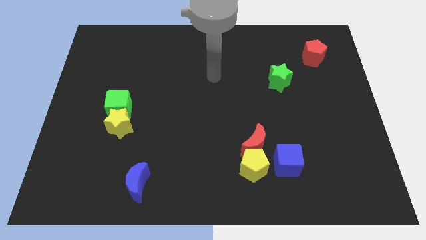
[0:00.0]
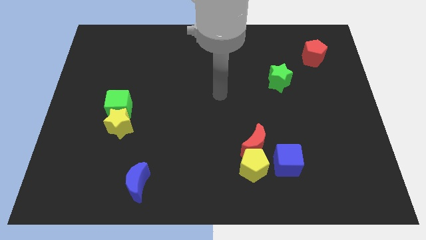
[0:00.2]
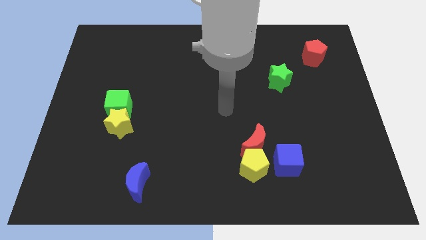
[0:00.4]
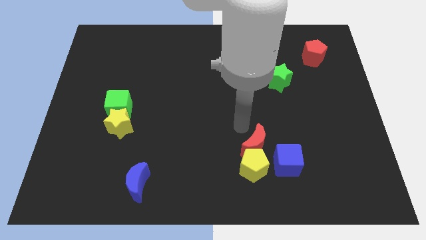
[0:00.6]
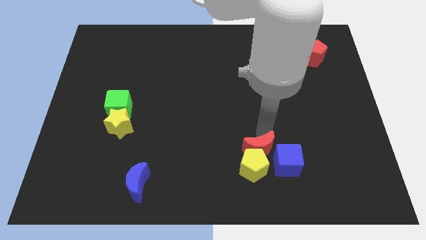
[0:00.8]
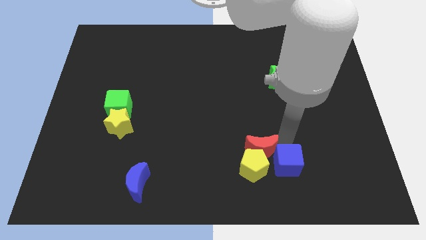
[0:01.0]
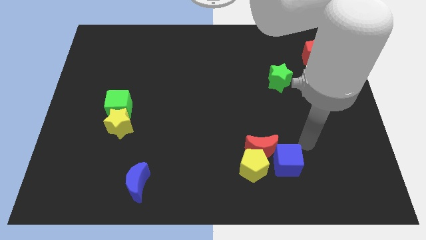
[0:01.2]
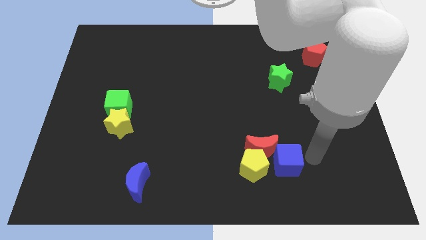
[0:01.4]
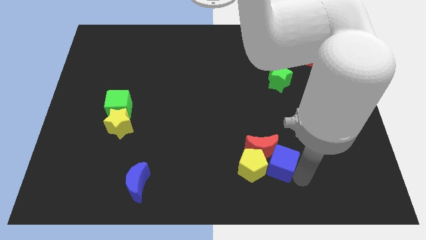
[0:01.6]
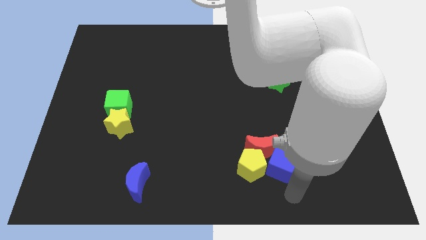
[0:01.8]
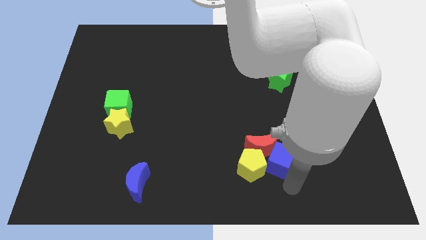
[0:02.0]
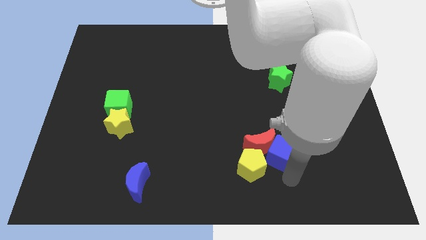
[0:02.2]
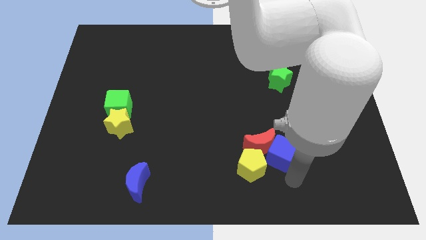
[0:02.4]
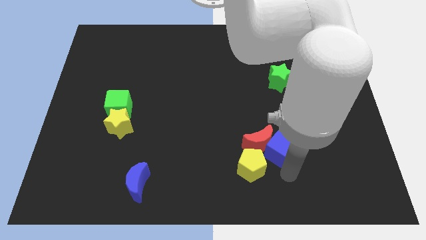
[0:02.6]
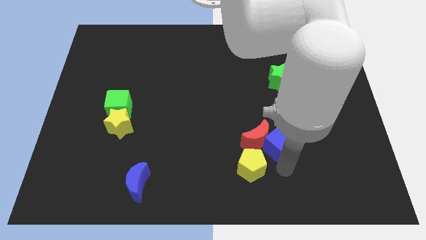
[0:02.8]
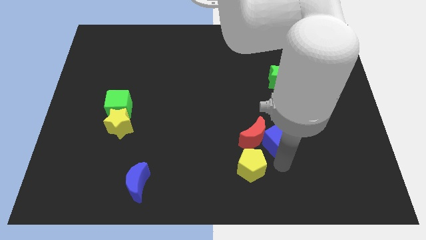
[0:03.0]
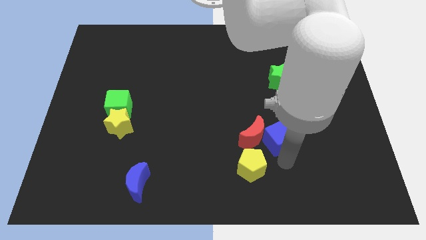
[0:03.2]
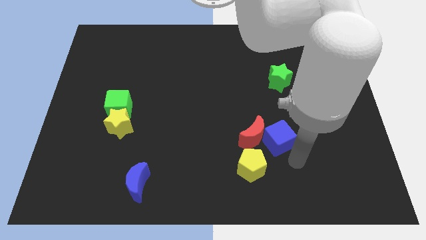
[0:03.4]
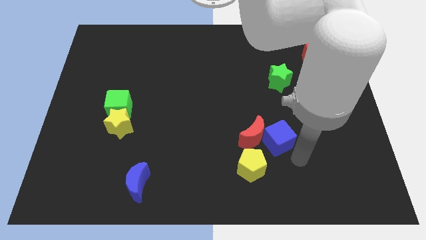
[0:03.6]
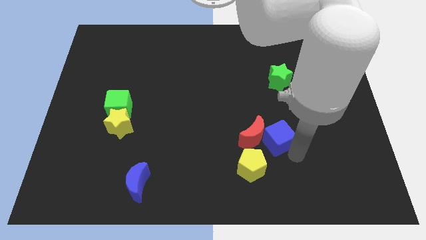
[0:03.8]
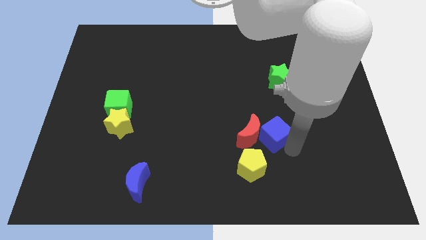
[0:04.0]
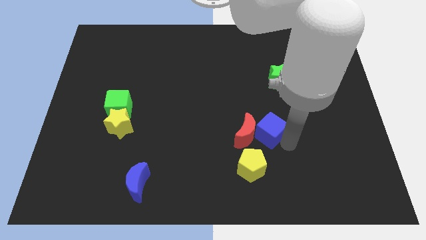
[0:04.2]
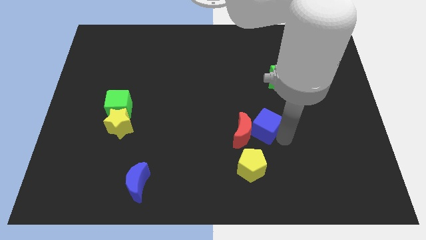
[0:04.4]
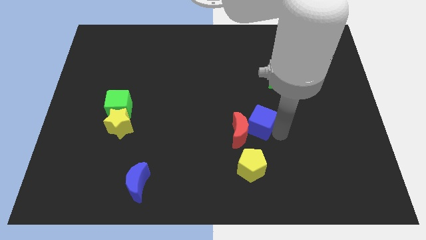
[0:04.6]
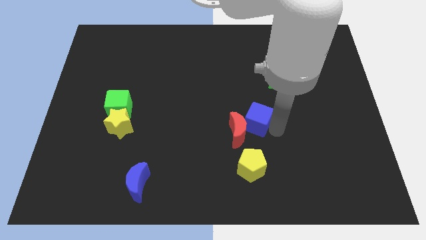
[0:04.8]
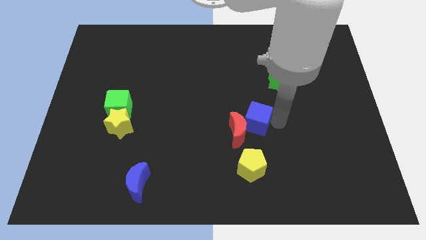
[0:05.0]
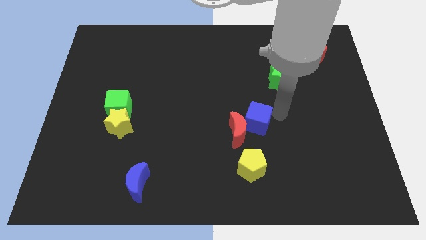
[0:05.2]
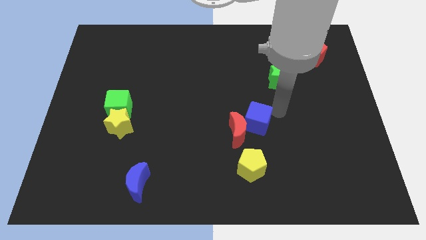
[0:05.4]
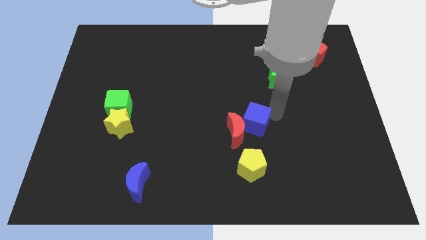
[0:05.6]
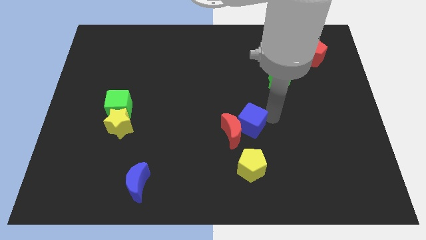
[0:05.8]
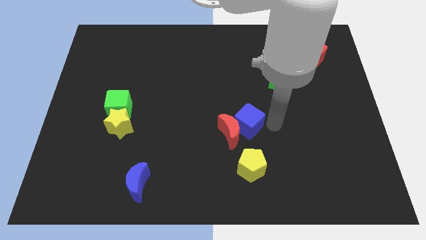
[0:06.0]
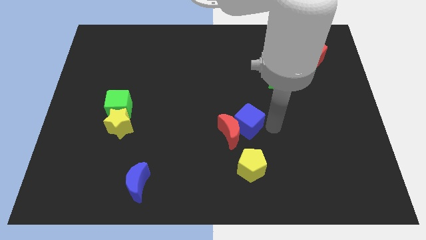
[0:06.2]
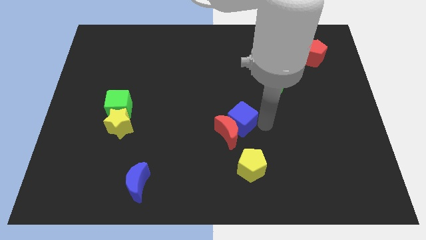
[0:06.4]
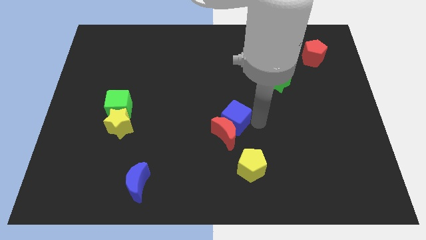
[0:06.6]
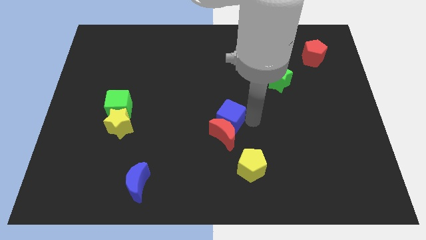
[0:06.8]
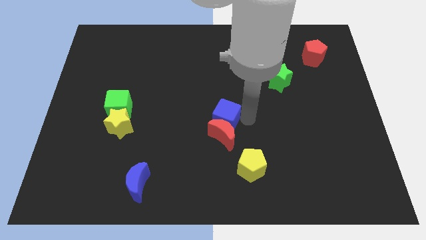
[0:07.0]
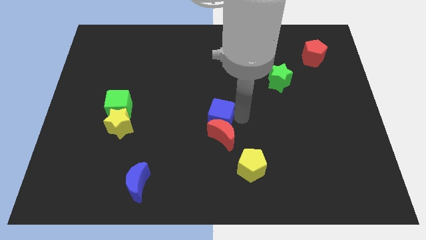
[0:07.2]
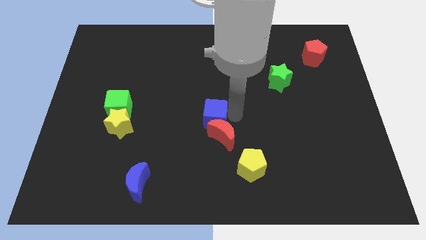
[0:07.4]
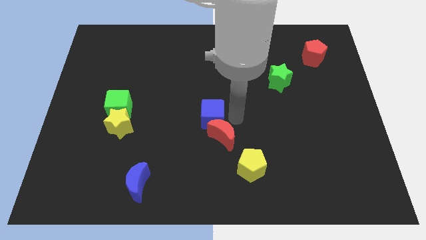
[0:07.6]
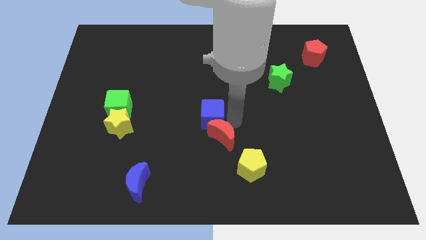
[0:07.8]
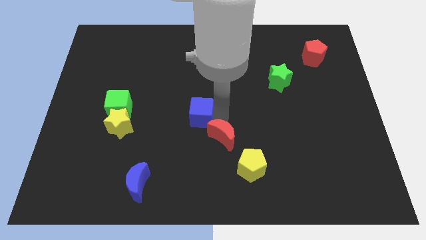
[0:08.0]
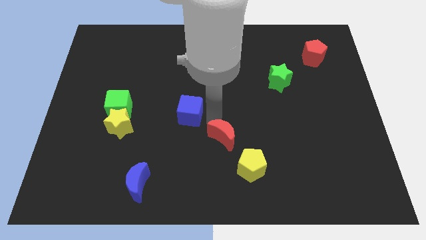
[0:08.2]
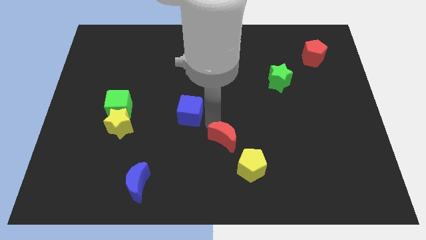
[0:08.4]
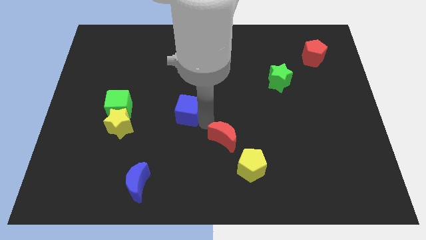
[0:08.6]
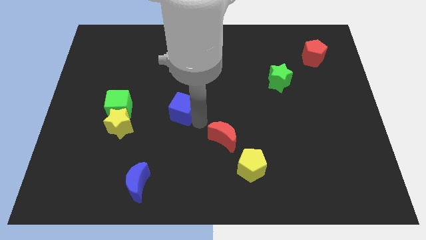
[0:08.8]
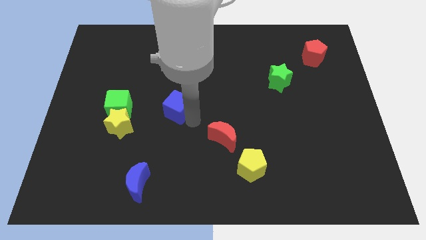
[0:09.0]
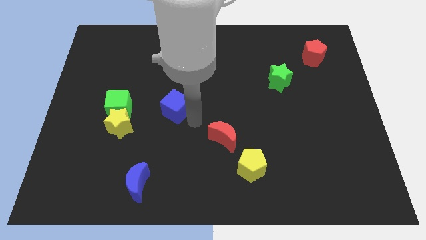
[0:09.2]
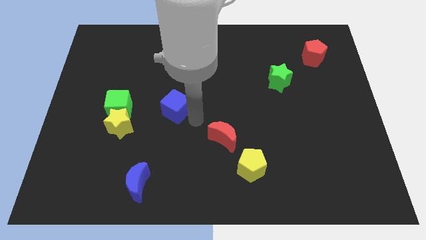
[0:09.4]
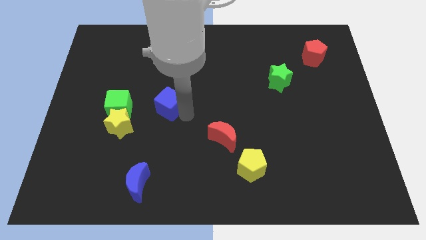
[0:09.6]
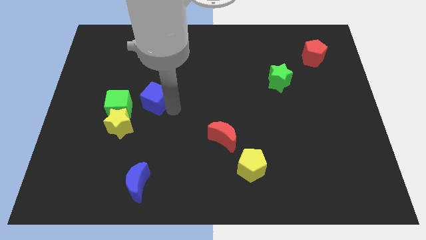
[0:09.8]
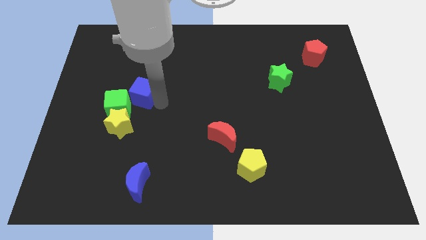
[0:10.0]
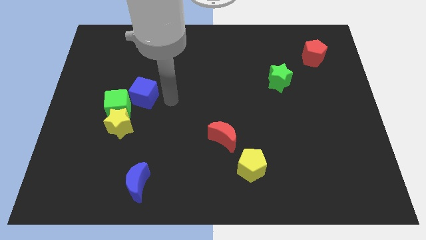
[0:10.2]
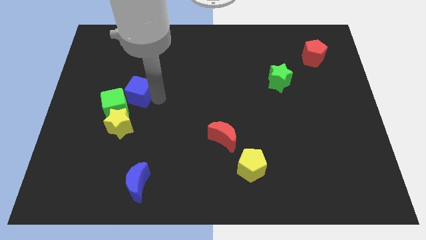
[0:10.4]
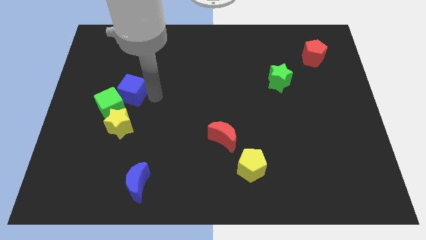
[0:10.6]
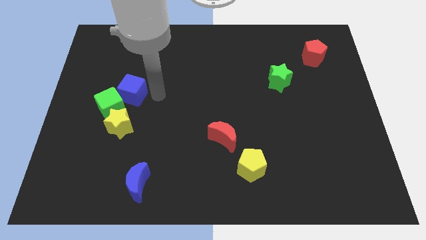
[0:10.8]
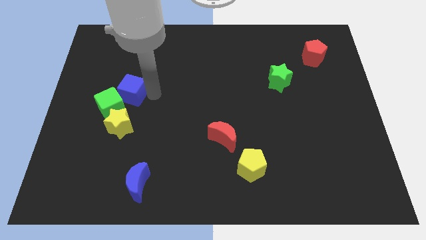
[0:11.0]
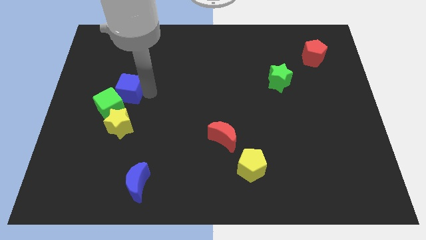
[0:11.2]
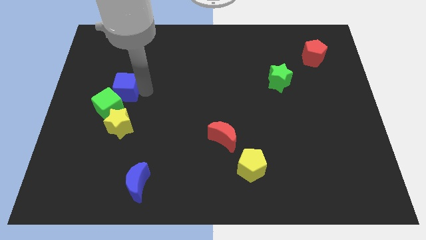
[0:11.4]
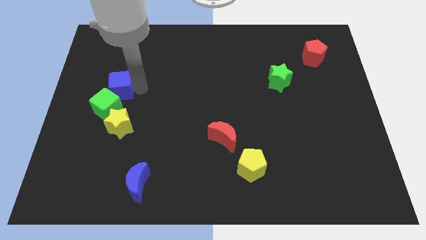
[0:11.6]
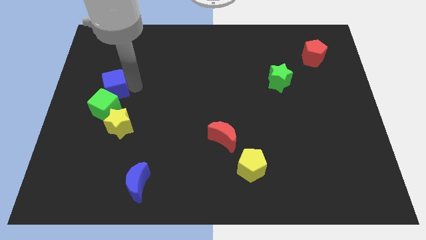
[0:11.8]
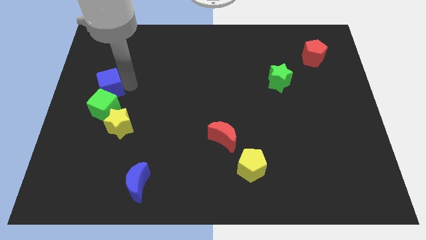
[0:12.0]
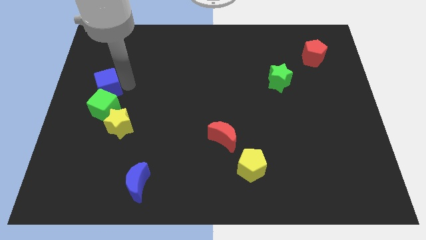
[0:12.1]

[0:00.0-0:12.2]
put the blue cube to the center left

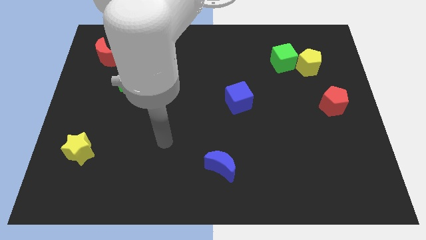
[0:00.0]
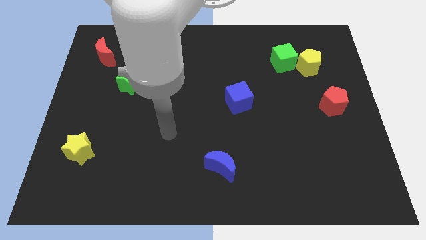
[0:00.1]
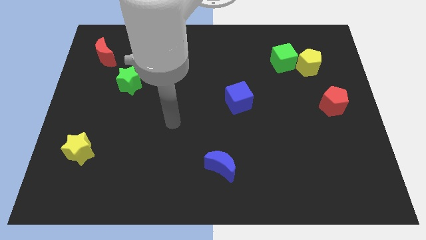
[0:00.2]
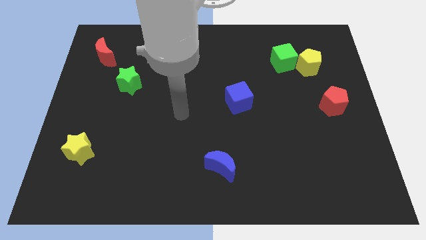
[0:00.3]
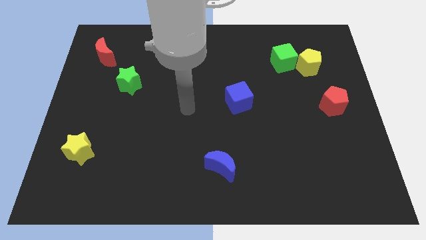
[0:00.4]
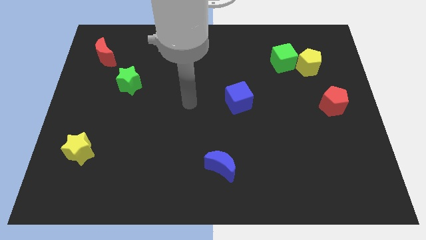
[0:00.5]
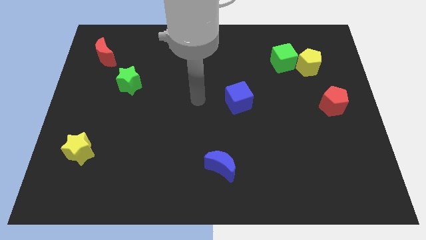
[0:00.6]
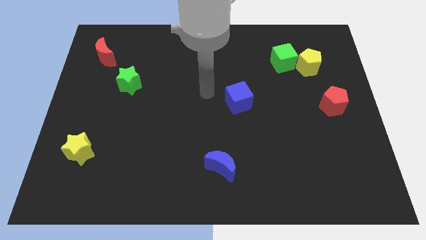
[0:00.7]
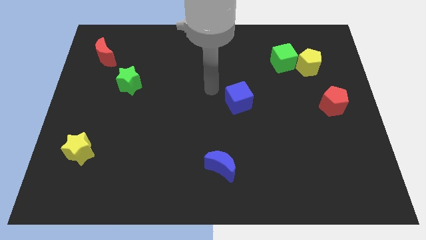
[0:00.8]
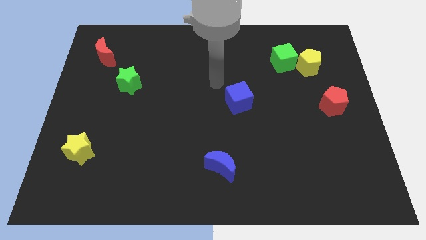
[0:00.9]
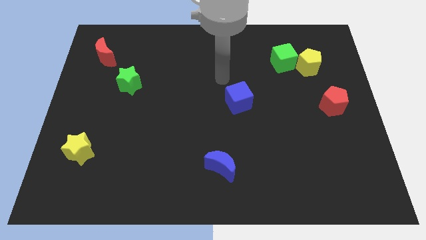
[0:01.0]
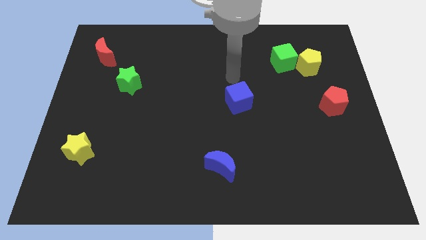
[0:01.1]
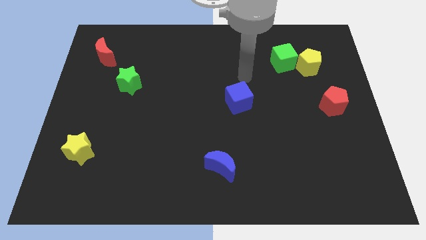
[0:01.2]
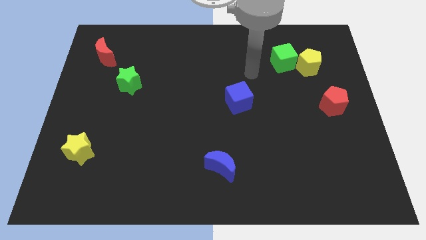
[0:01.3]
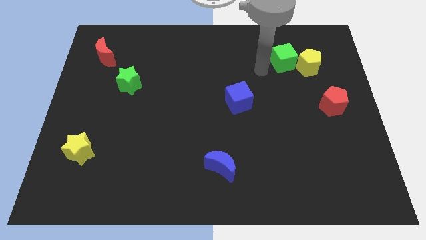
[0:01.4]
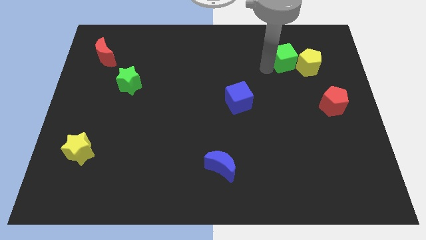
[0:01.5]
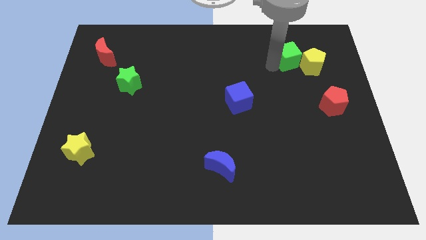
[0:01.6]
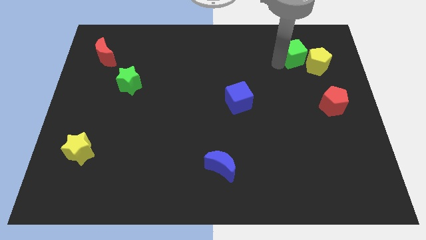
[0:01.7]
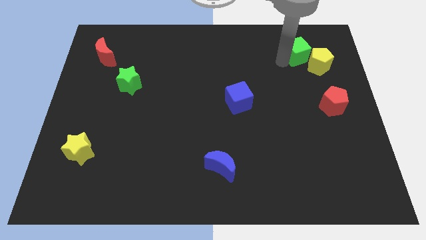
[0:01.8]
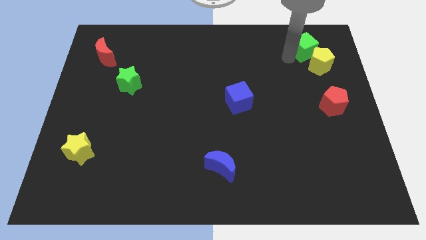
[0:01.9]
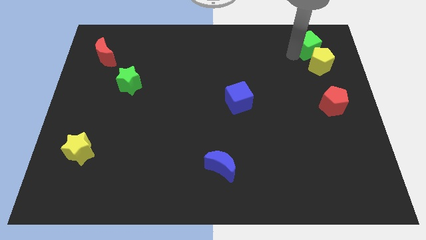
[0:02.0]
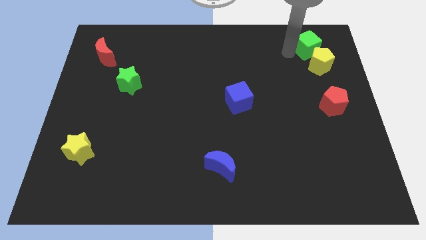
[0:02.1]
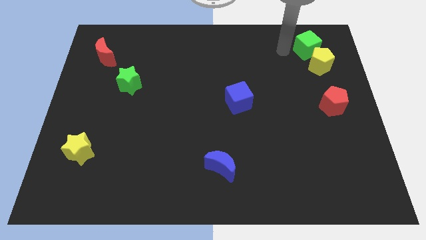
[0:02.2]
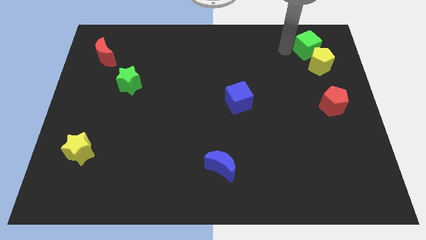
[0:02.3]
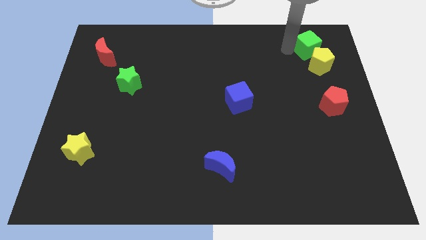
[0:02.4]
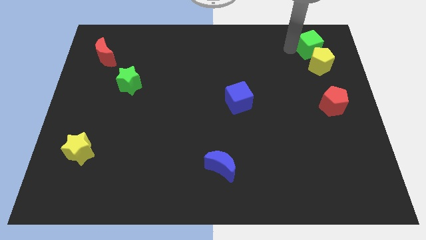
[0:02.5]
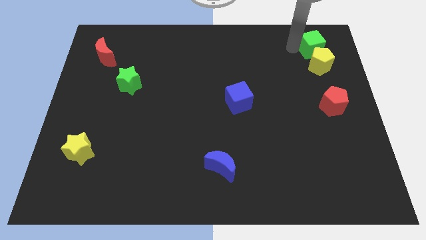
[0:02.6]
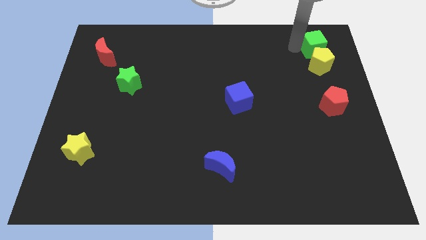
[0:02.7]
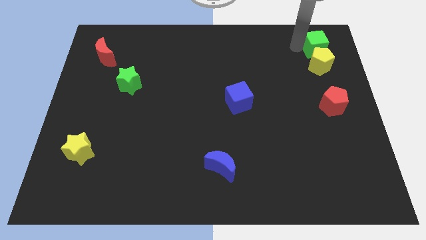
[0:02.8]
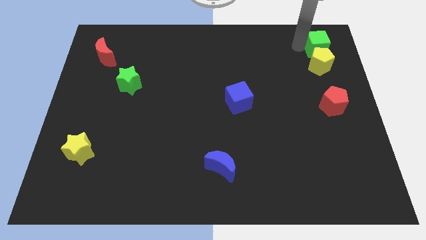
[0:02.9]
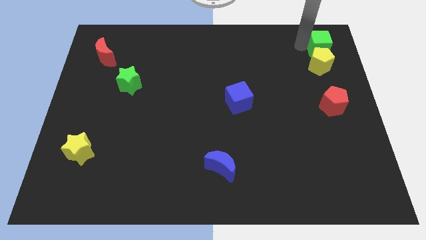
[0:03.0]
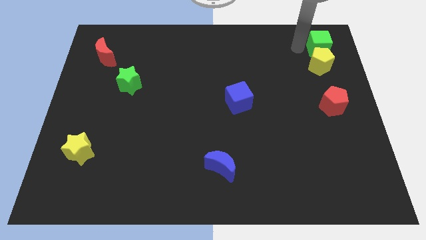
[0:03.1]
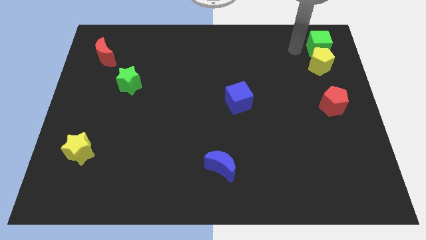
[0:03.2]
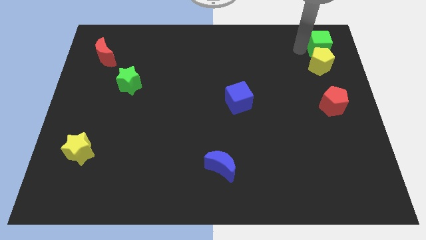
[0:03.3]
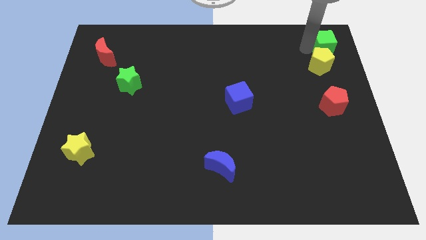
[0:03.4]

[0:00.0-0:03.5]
slide the green cube to the top right
